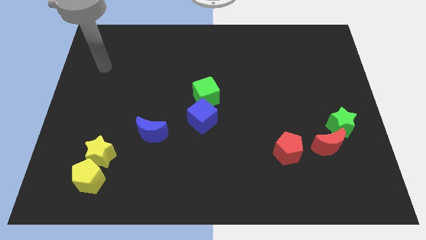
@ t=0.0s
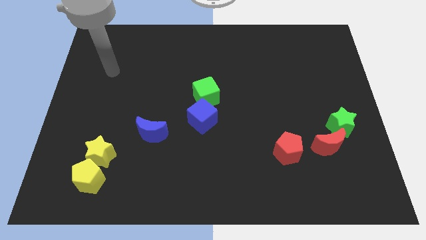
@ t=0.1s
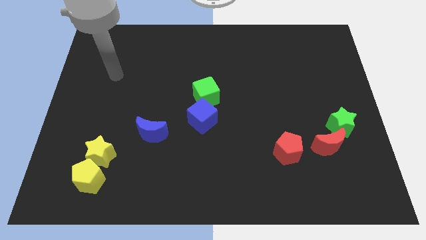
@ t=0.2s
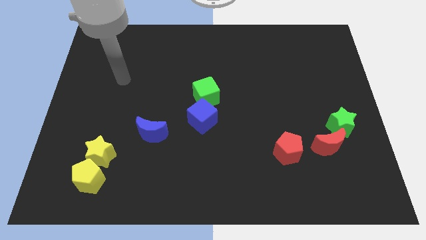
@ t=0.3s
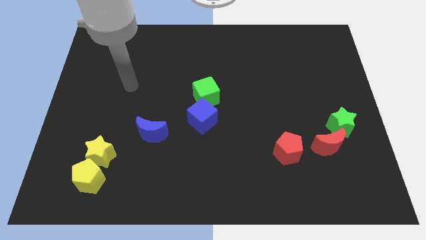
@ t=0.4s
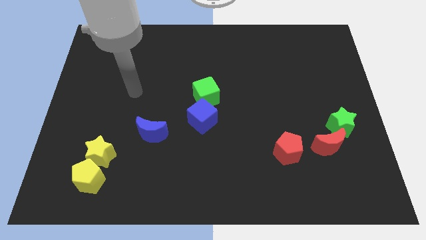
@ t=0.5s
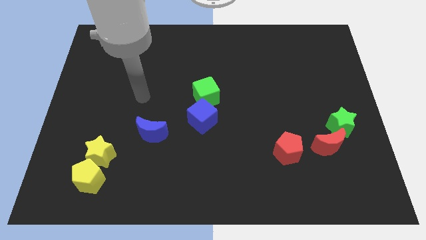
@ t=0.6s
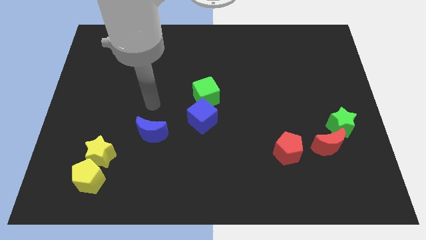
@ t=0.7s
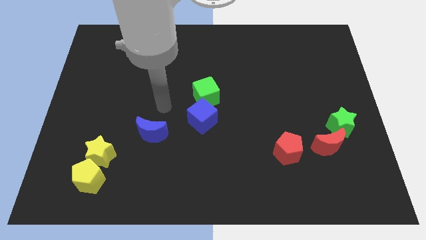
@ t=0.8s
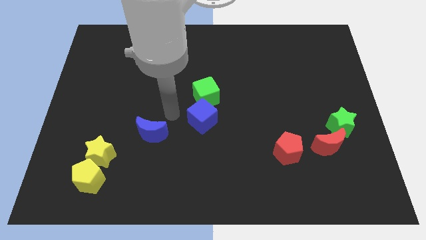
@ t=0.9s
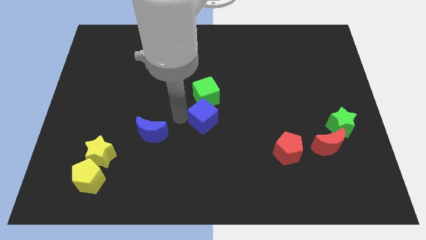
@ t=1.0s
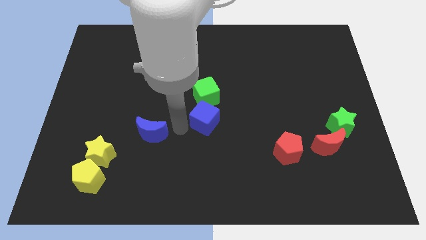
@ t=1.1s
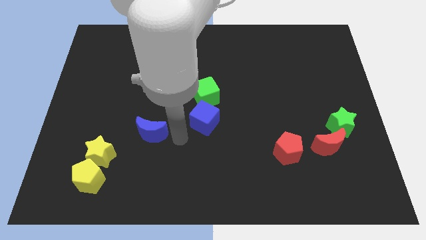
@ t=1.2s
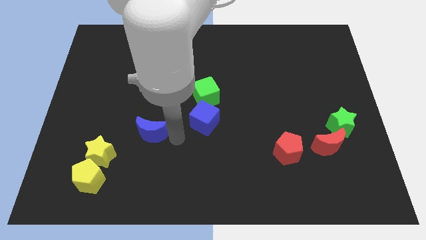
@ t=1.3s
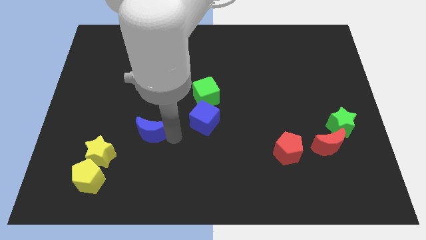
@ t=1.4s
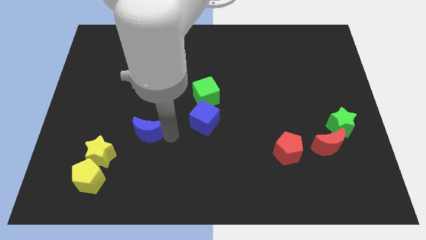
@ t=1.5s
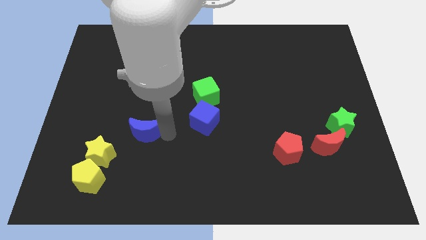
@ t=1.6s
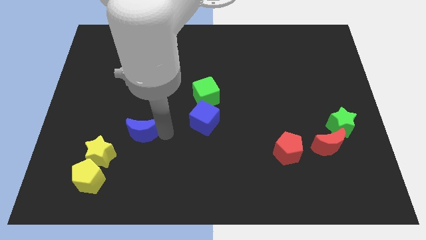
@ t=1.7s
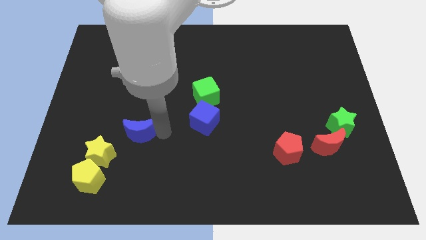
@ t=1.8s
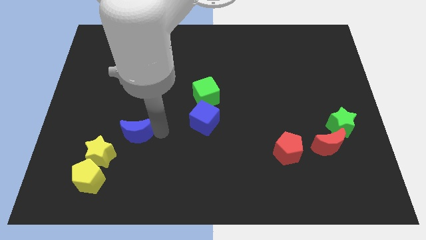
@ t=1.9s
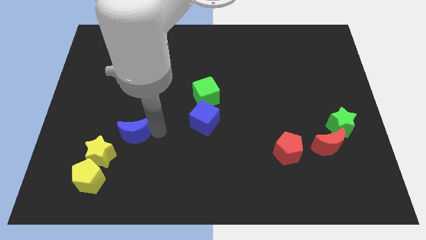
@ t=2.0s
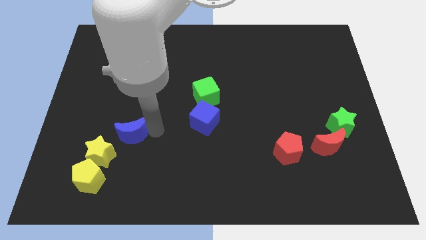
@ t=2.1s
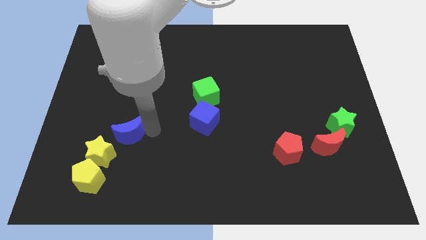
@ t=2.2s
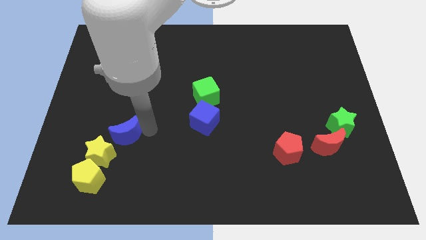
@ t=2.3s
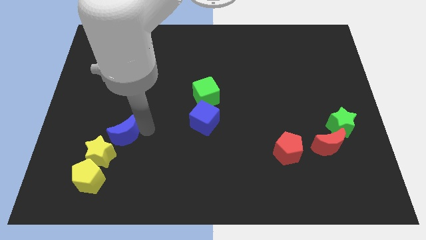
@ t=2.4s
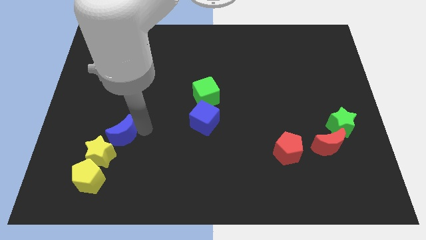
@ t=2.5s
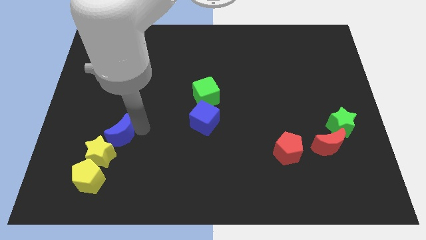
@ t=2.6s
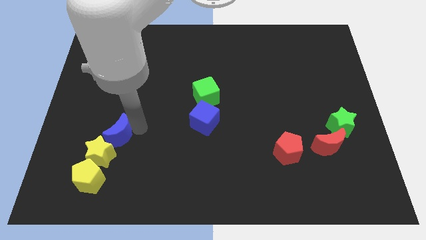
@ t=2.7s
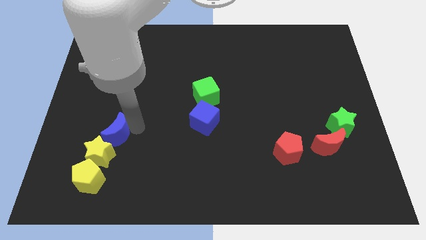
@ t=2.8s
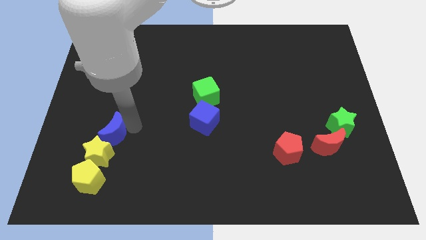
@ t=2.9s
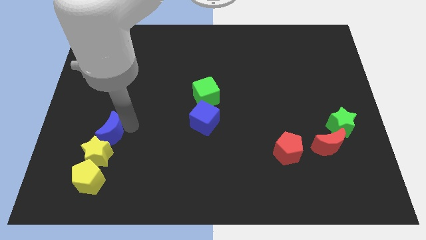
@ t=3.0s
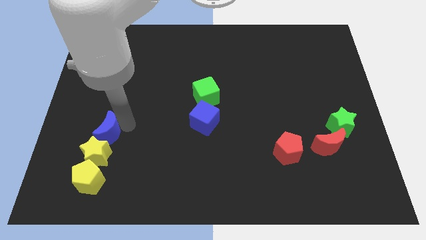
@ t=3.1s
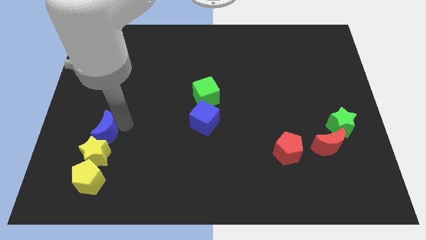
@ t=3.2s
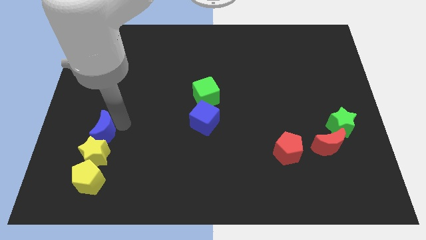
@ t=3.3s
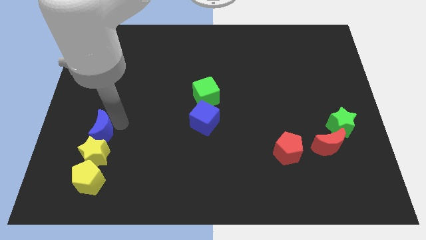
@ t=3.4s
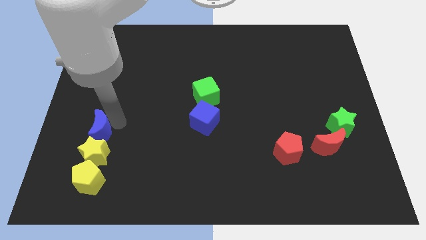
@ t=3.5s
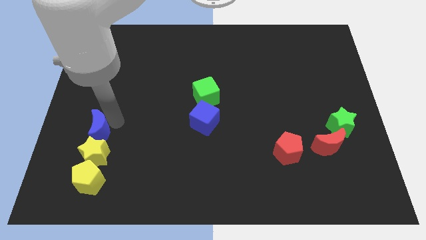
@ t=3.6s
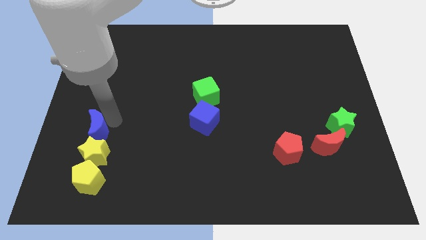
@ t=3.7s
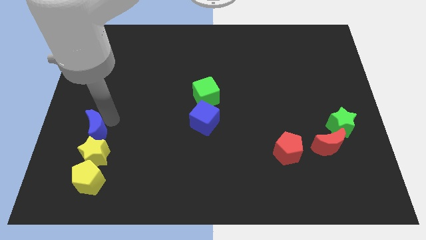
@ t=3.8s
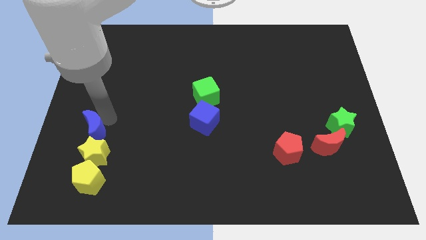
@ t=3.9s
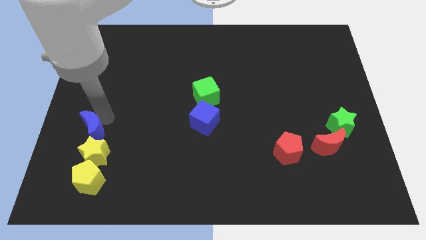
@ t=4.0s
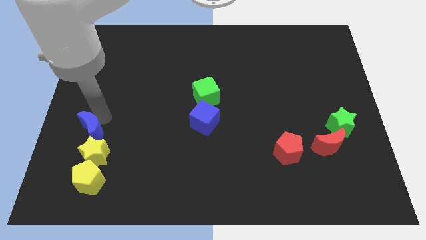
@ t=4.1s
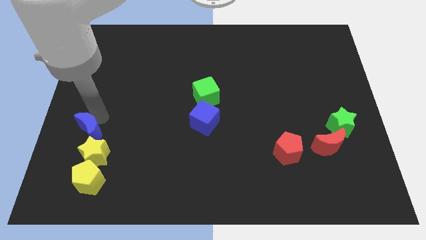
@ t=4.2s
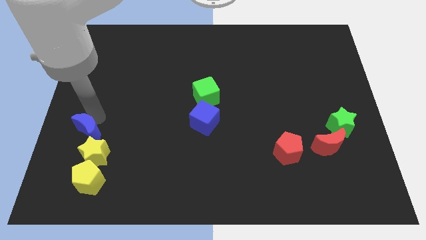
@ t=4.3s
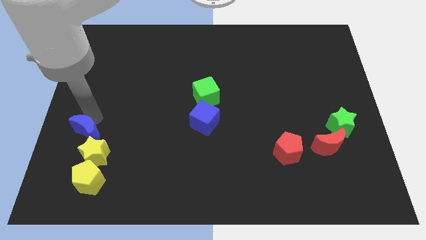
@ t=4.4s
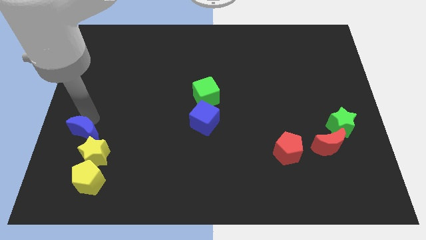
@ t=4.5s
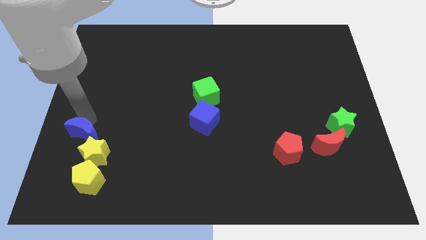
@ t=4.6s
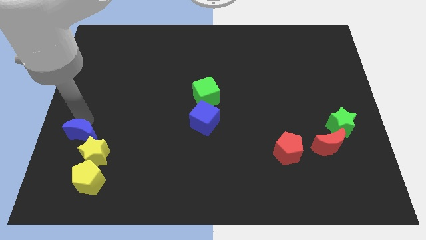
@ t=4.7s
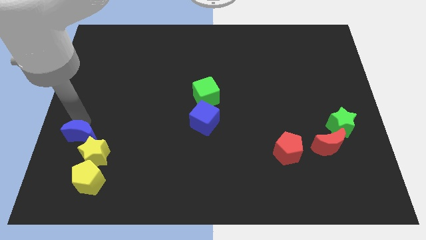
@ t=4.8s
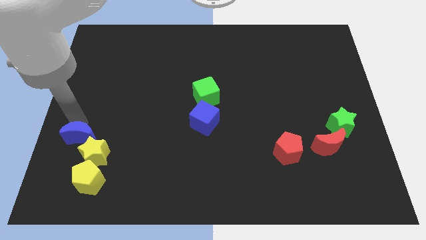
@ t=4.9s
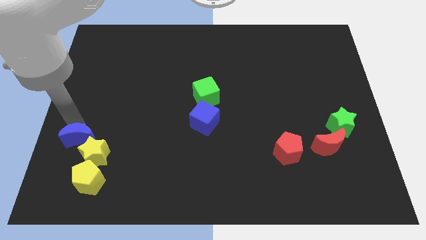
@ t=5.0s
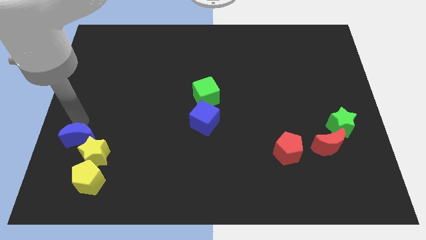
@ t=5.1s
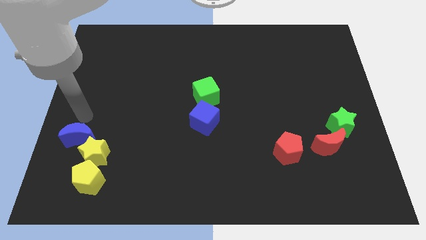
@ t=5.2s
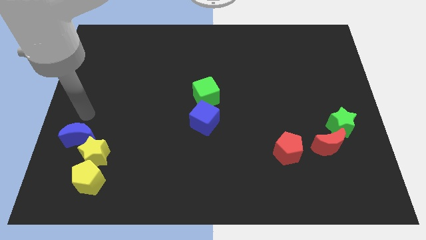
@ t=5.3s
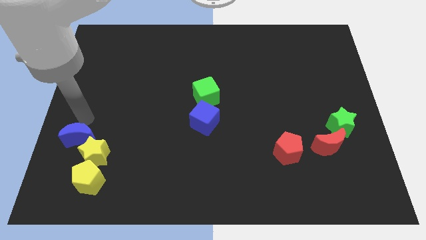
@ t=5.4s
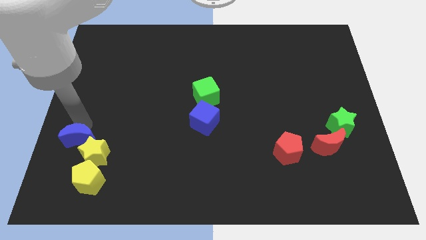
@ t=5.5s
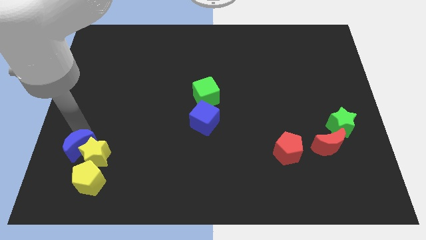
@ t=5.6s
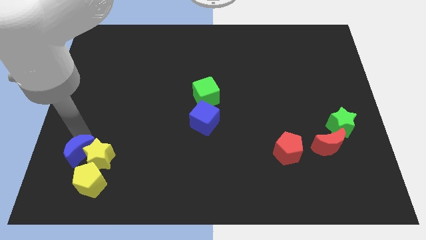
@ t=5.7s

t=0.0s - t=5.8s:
move the blue moon to the bottom left of the yellow star

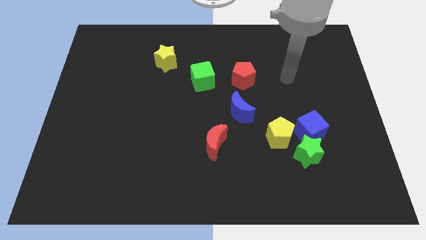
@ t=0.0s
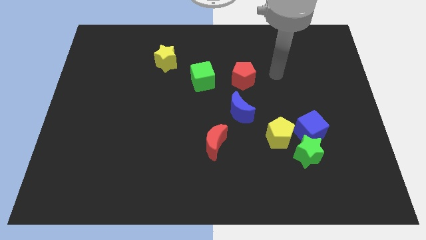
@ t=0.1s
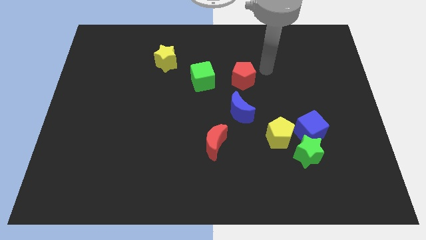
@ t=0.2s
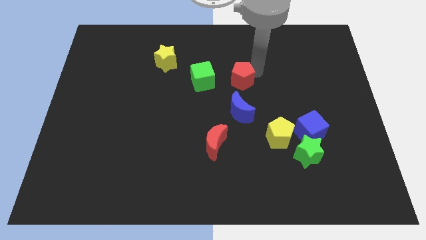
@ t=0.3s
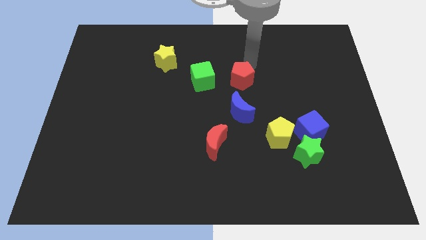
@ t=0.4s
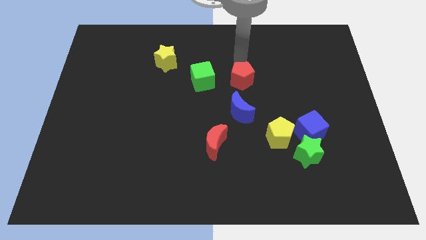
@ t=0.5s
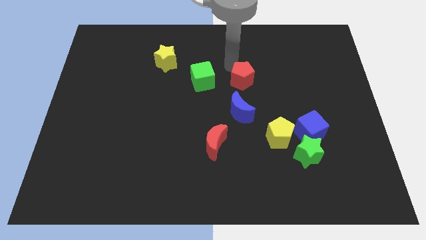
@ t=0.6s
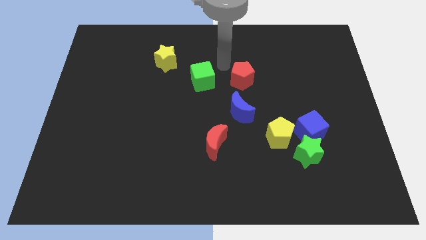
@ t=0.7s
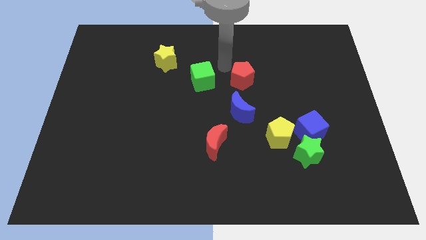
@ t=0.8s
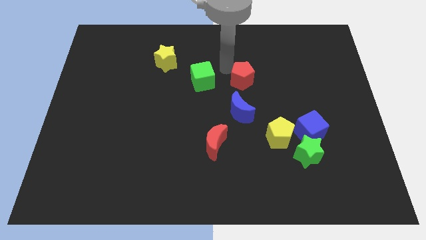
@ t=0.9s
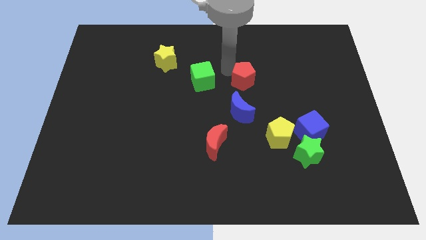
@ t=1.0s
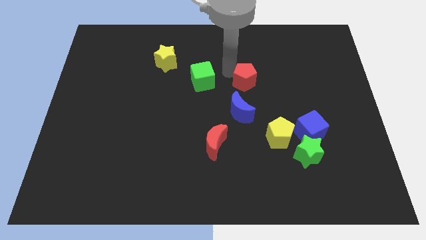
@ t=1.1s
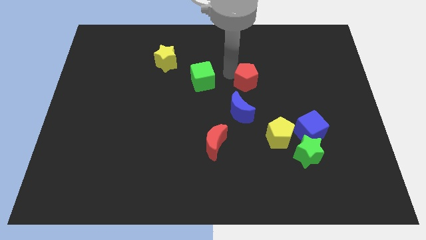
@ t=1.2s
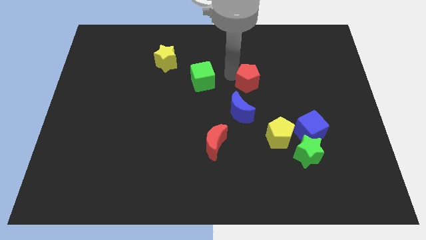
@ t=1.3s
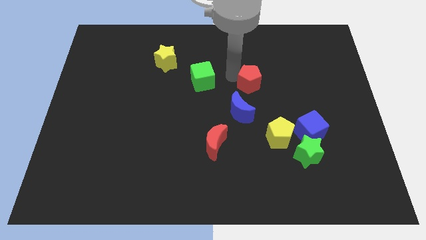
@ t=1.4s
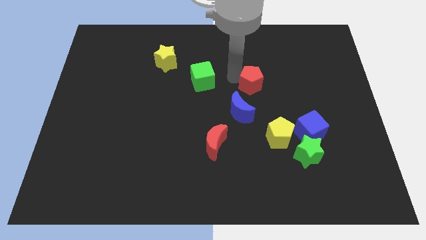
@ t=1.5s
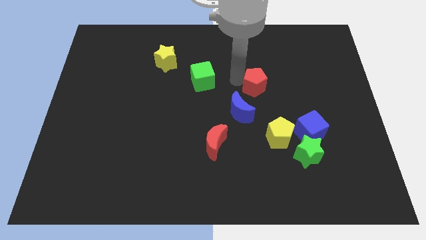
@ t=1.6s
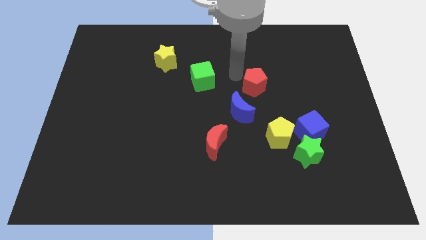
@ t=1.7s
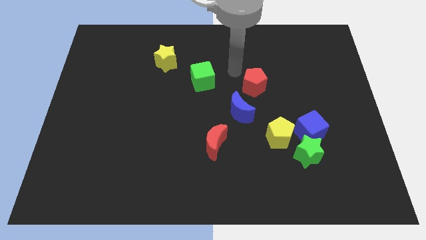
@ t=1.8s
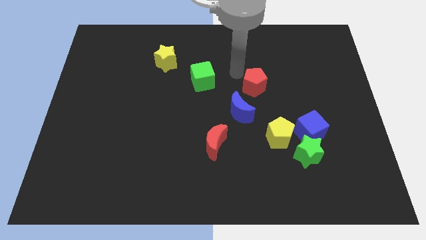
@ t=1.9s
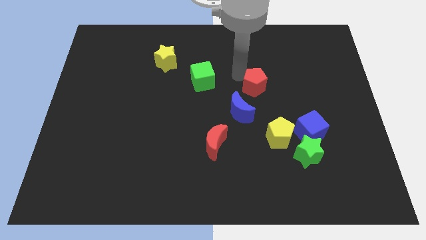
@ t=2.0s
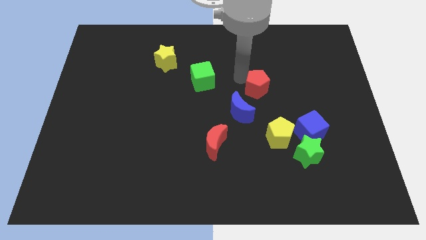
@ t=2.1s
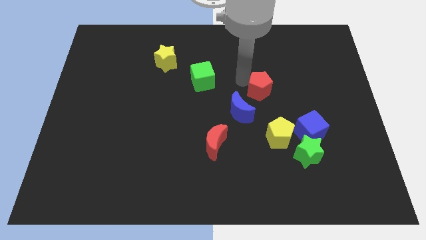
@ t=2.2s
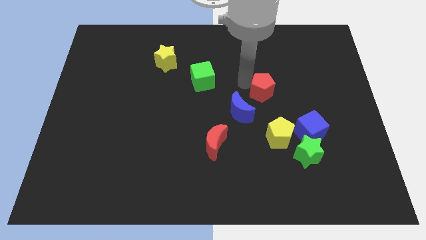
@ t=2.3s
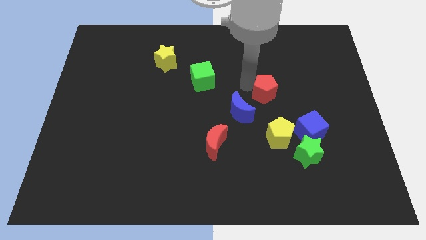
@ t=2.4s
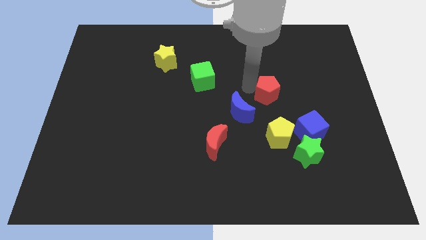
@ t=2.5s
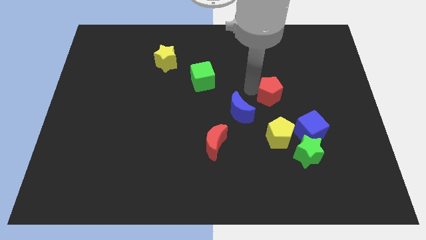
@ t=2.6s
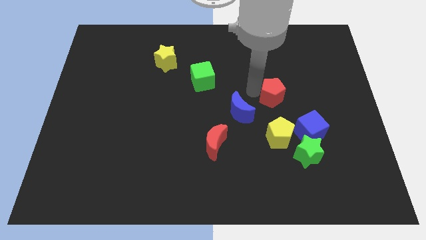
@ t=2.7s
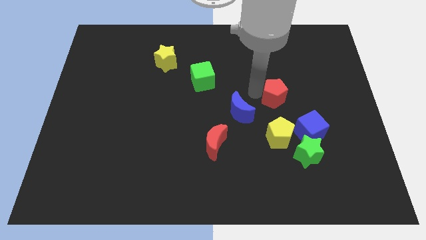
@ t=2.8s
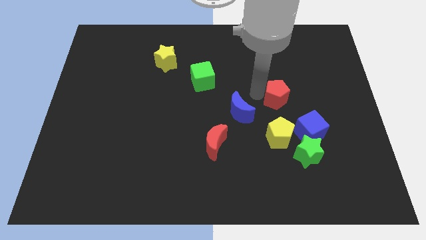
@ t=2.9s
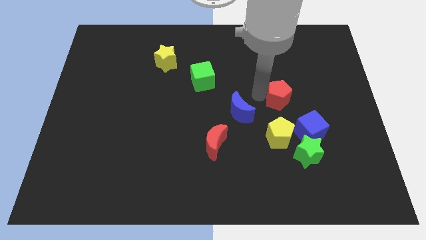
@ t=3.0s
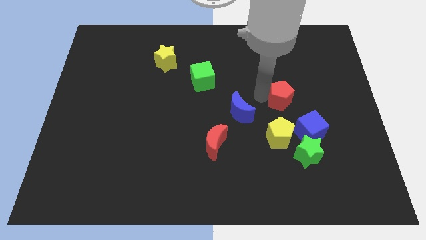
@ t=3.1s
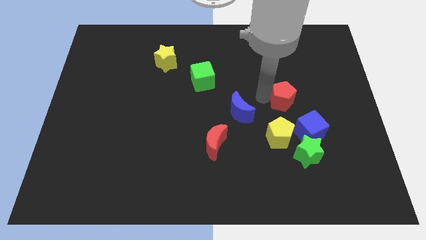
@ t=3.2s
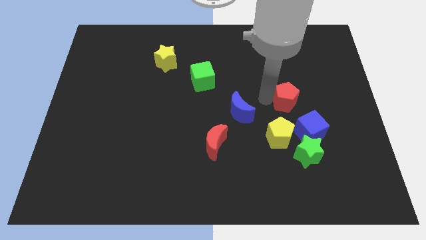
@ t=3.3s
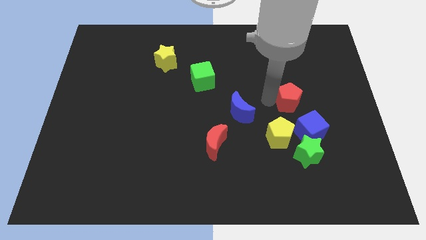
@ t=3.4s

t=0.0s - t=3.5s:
move the red pentagon to the top right side of the yellow pentagon
